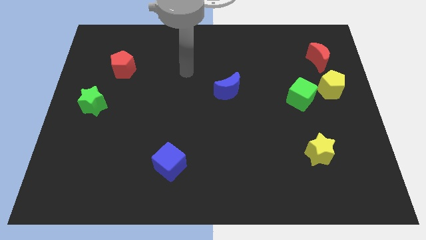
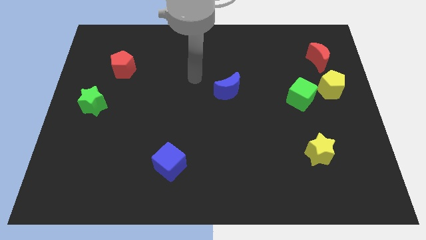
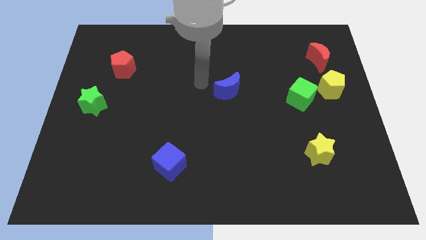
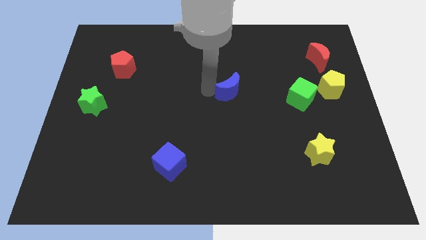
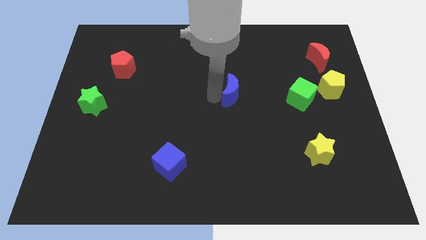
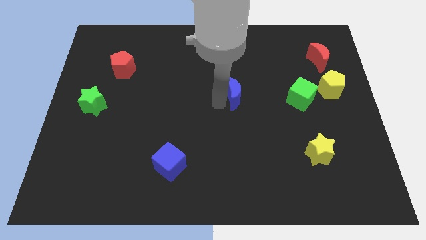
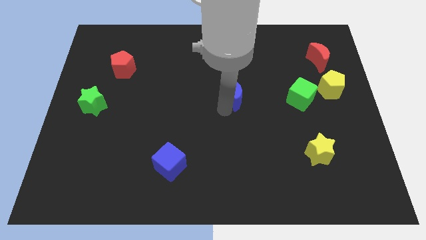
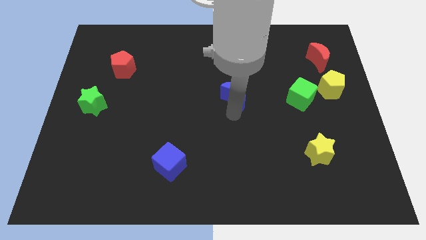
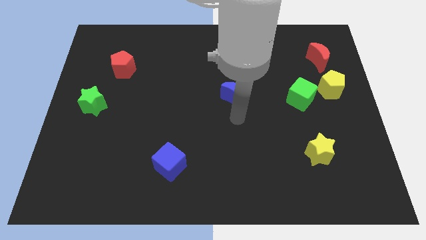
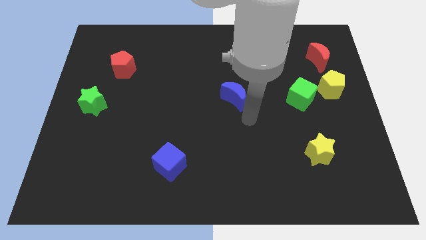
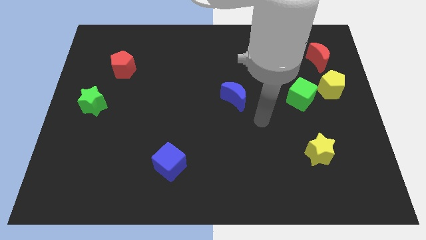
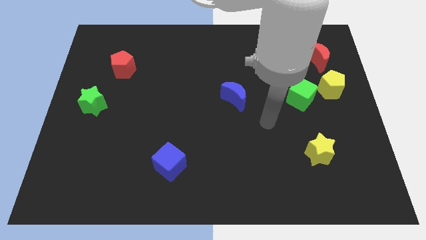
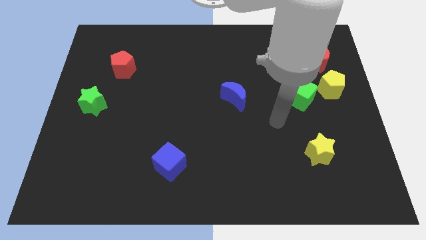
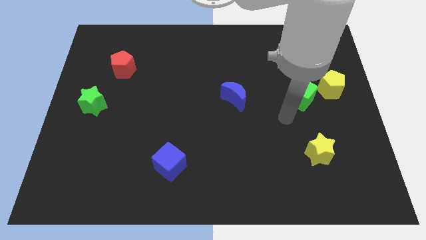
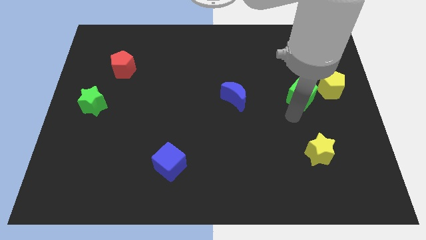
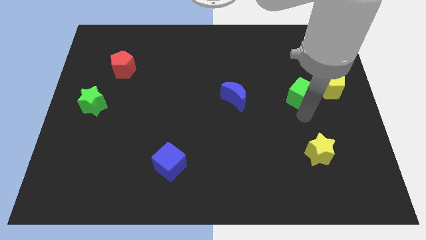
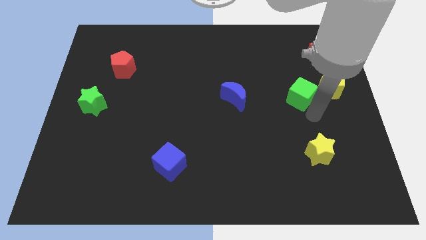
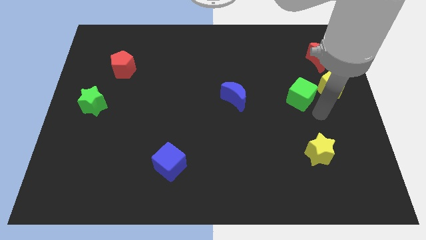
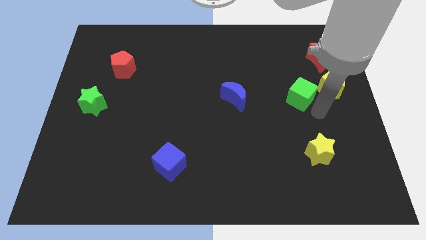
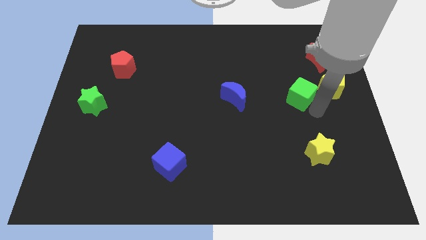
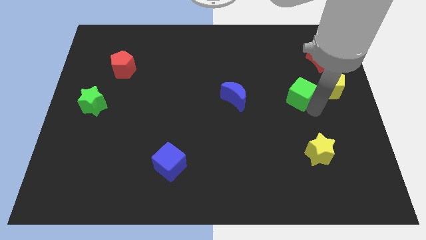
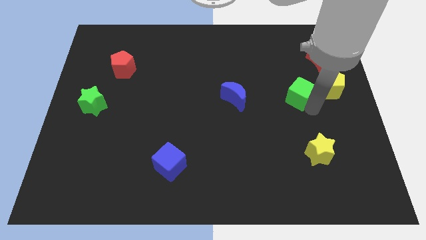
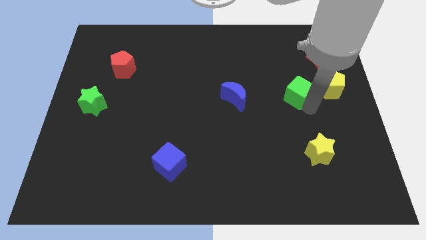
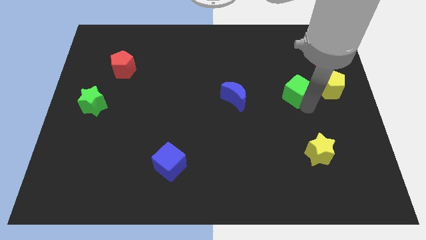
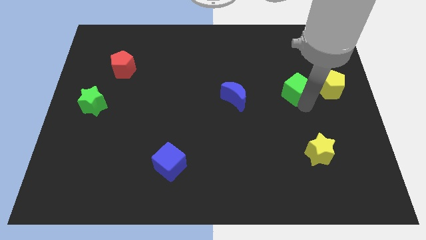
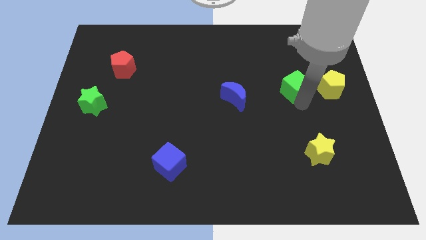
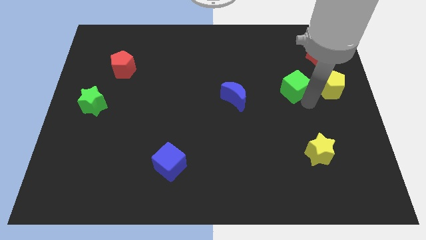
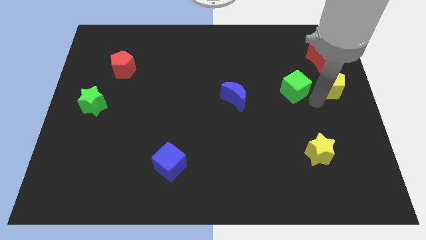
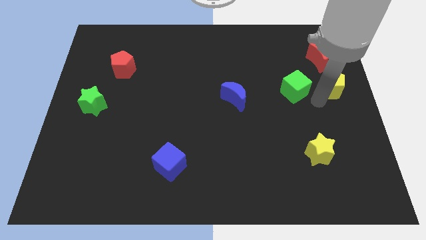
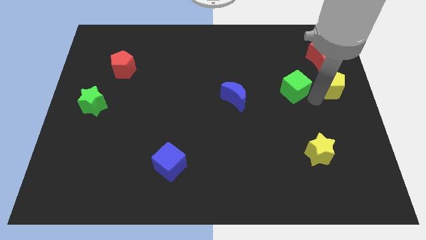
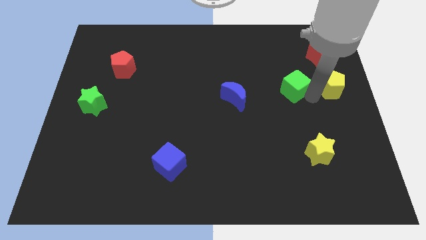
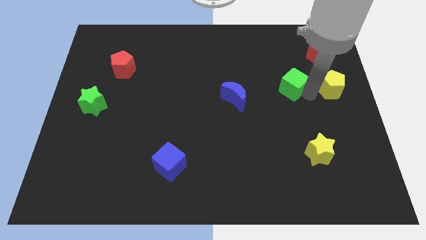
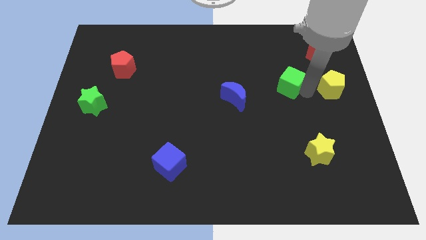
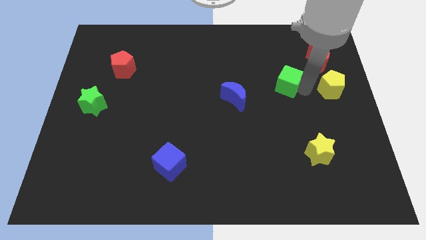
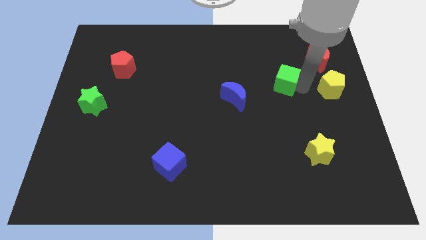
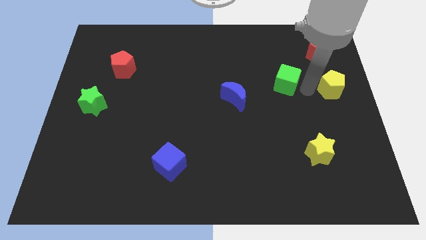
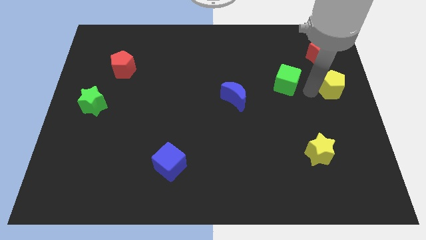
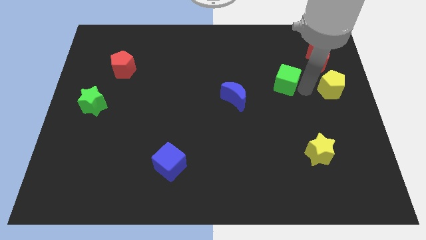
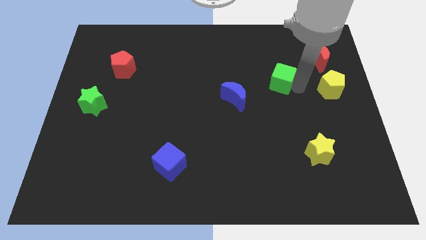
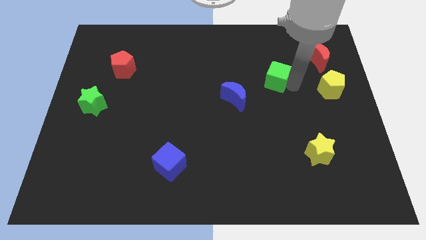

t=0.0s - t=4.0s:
slide the green cube upwards and then to the left a little bit

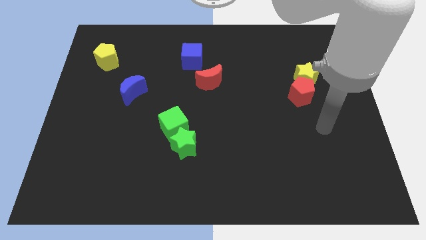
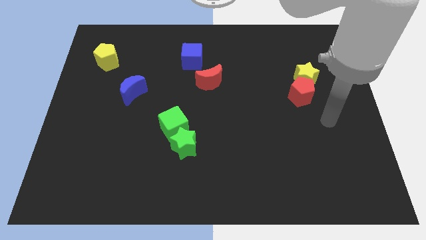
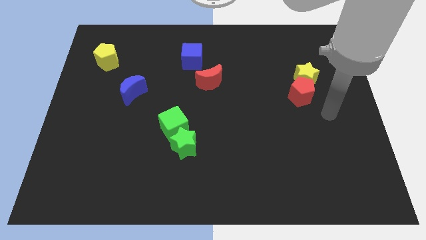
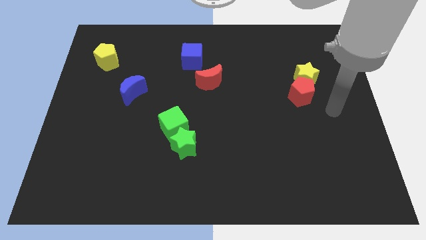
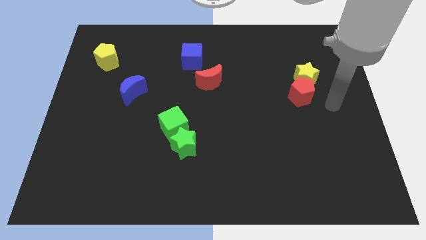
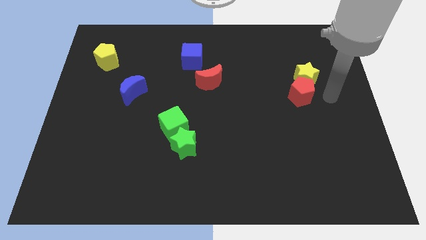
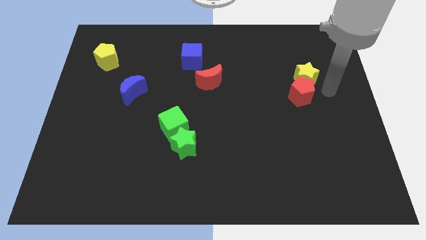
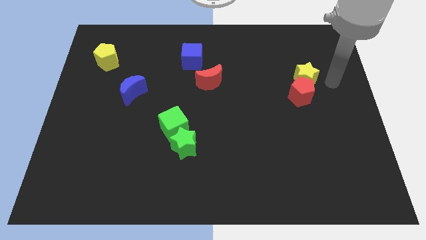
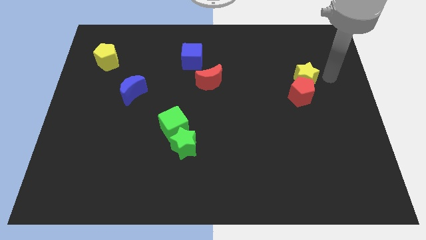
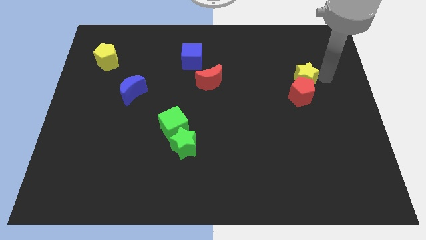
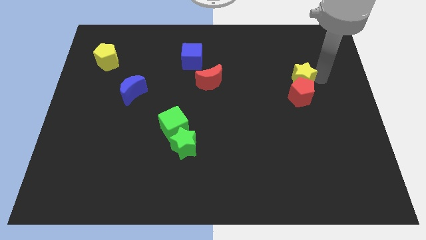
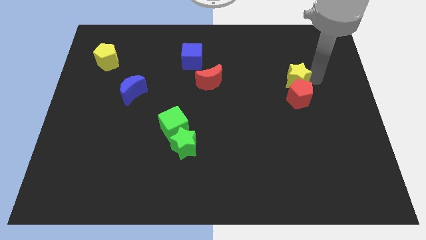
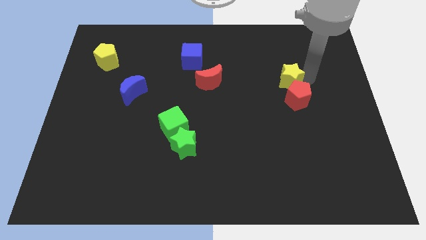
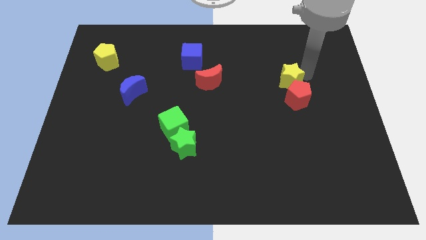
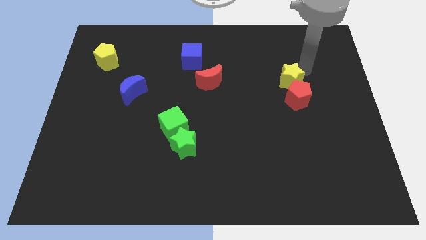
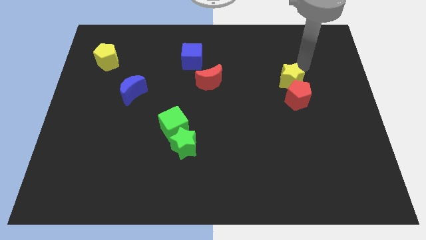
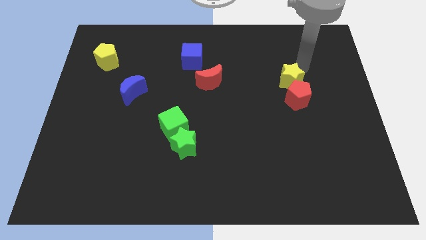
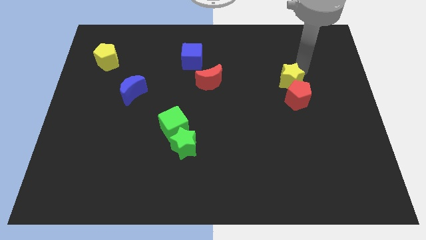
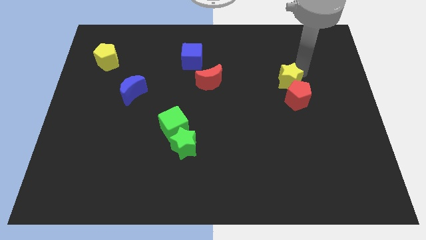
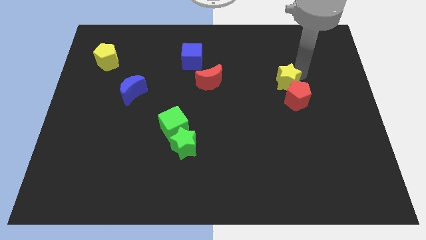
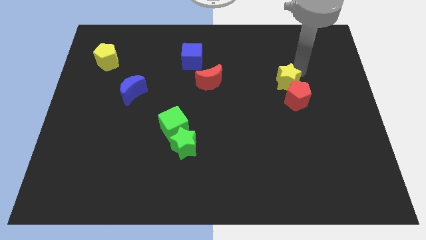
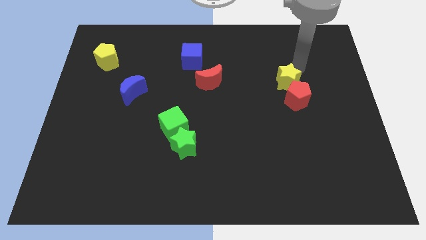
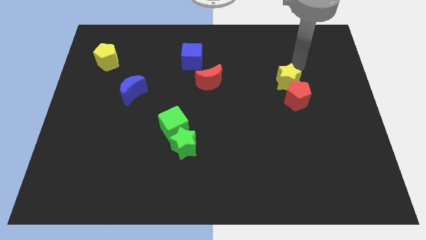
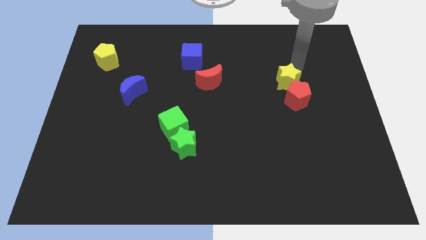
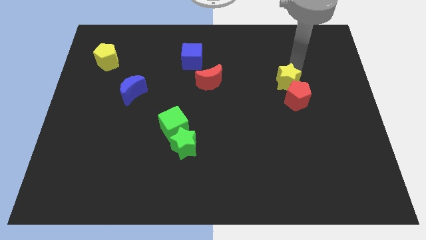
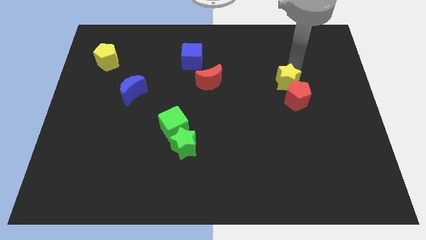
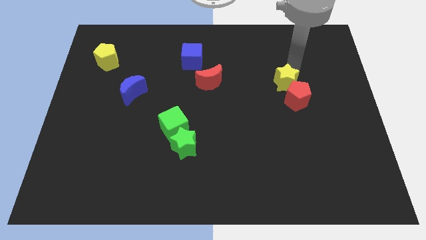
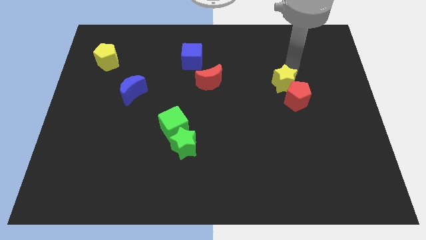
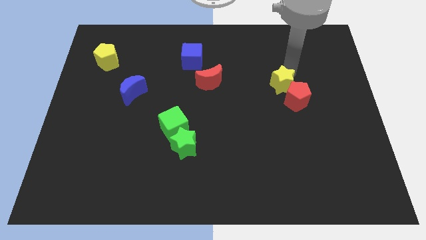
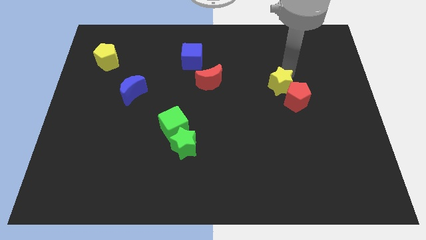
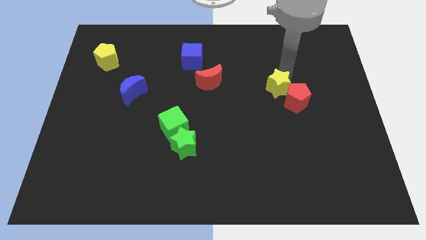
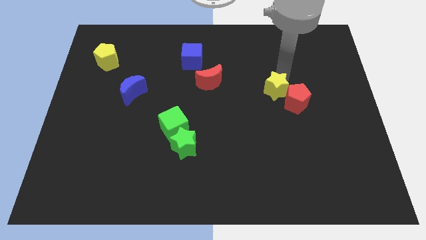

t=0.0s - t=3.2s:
slightly slide the yellow star diagonally down and to the left

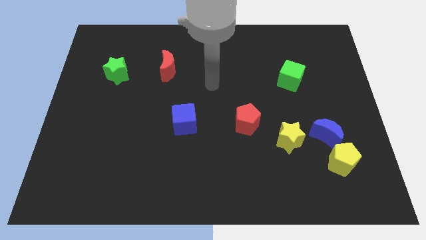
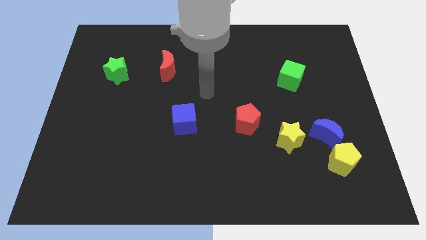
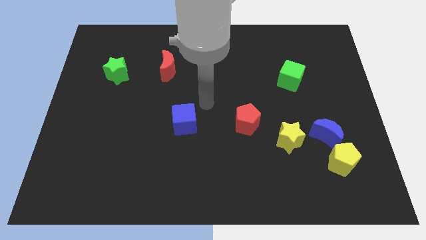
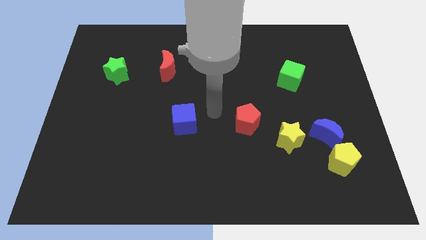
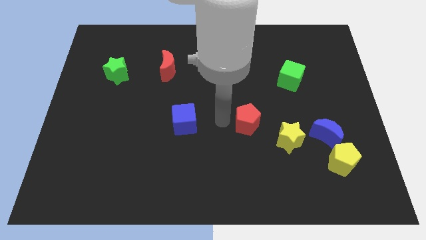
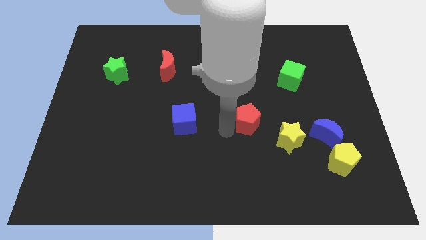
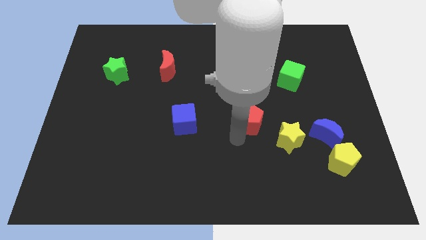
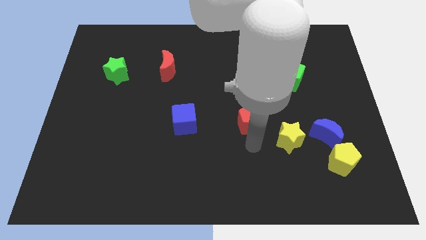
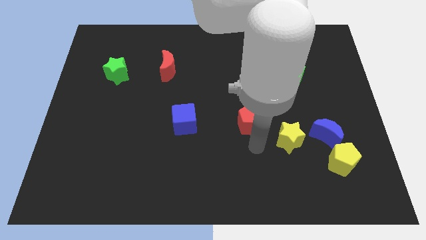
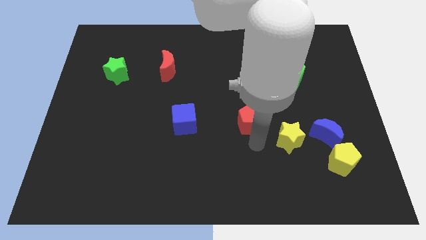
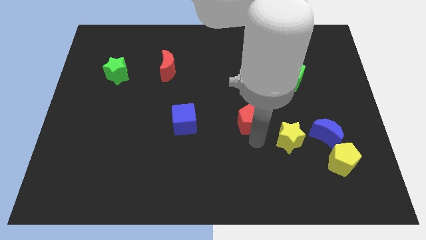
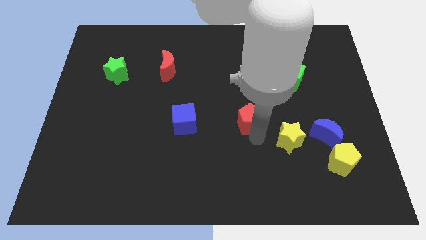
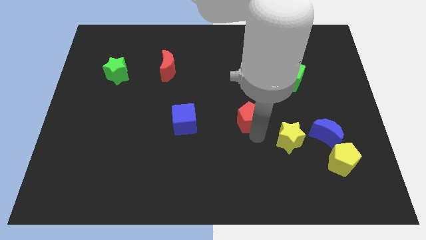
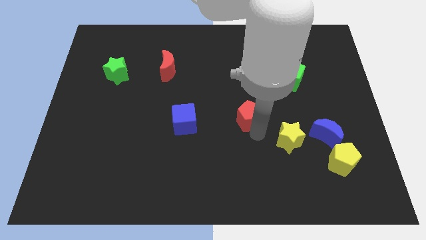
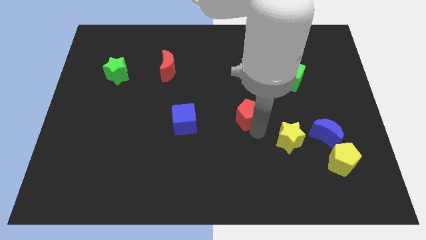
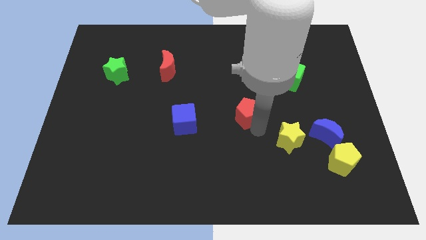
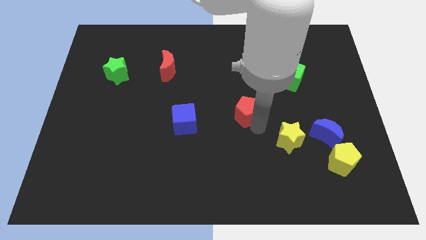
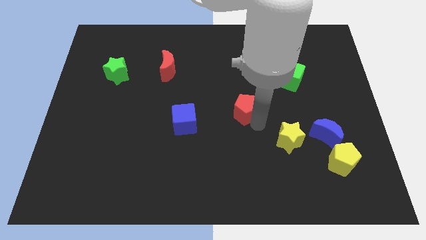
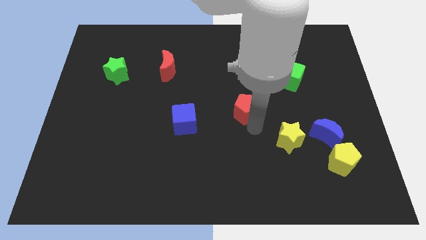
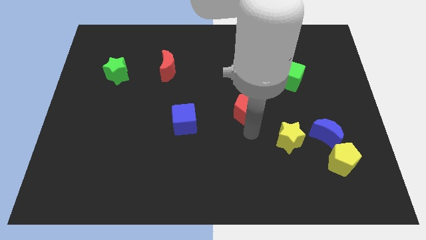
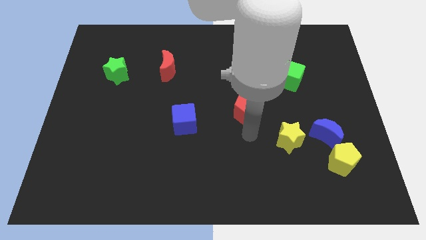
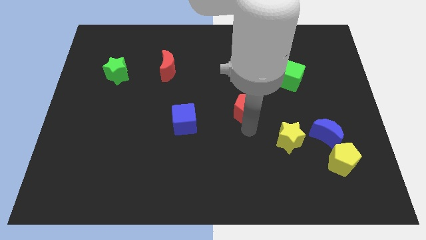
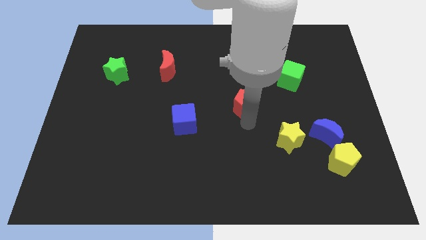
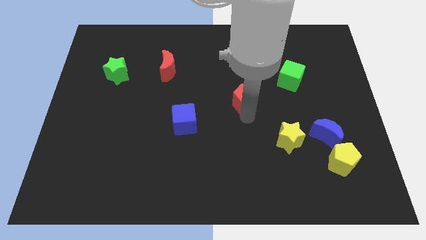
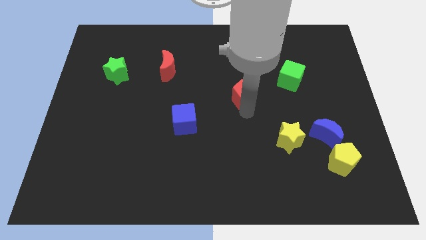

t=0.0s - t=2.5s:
slightly push the red pentagon up
